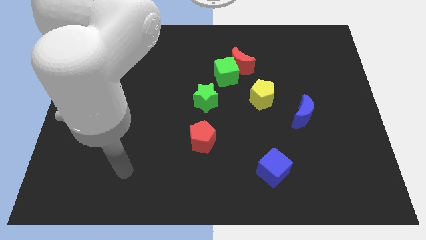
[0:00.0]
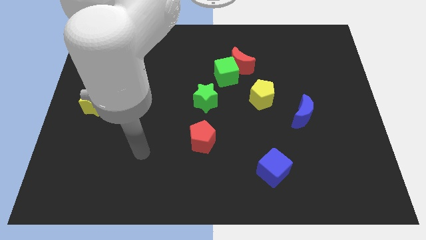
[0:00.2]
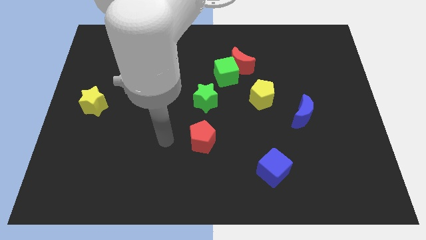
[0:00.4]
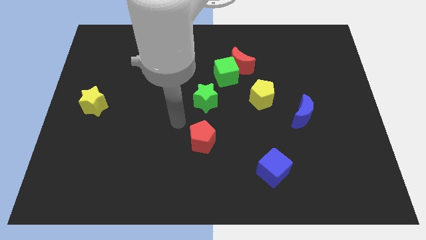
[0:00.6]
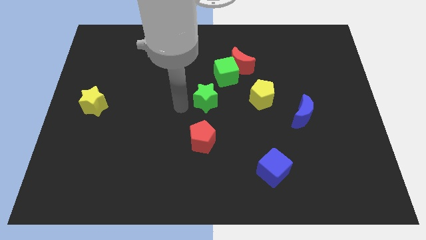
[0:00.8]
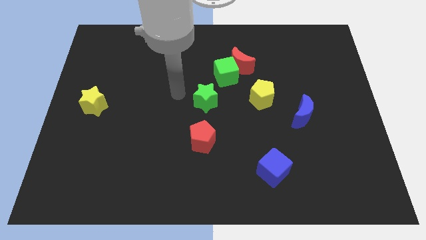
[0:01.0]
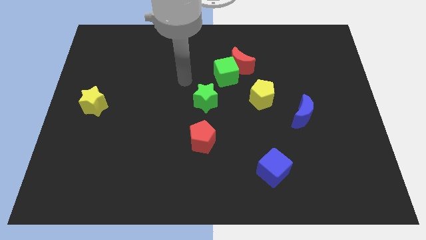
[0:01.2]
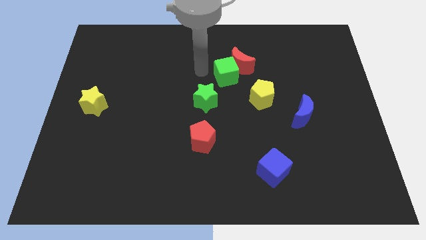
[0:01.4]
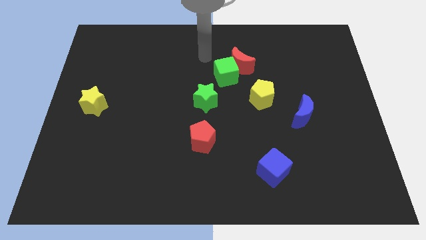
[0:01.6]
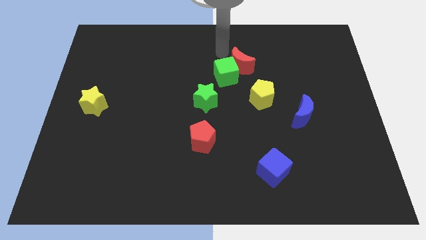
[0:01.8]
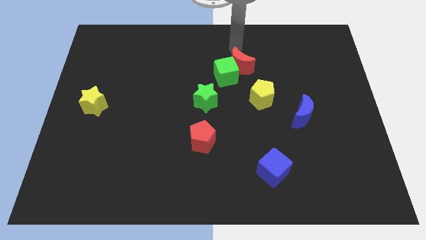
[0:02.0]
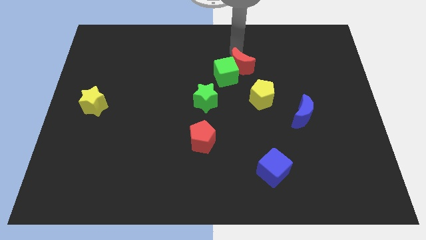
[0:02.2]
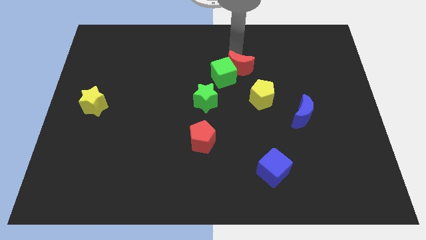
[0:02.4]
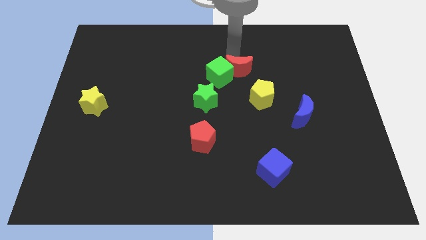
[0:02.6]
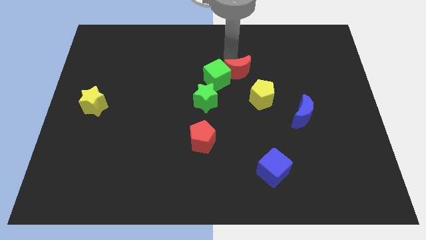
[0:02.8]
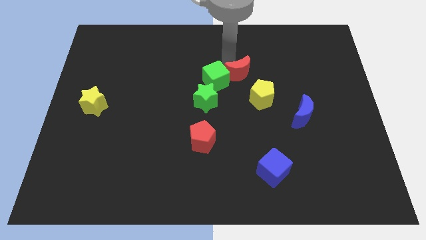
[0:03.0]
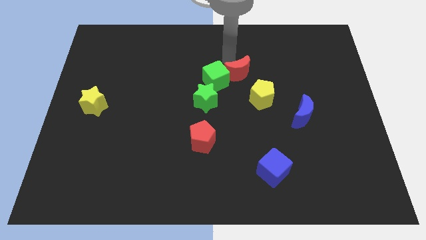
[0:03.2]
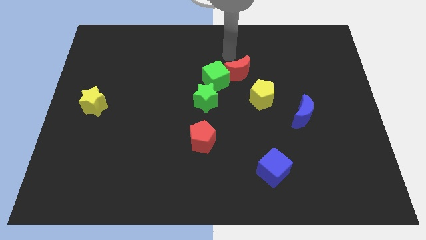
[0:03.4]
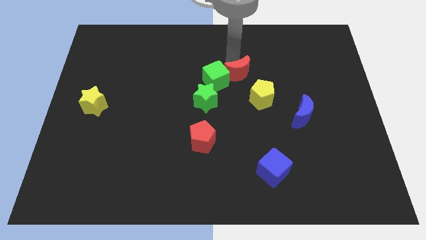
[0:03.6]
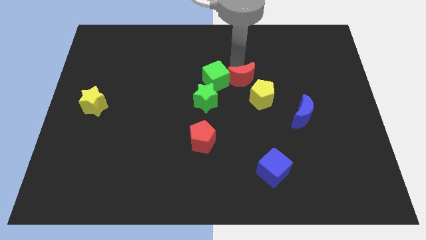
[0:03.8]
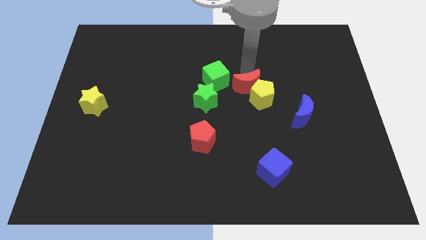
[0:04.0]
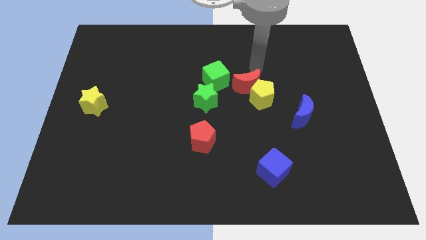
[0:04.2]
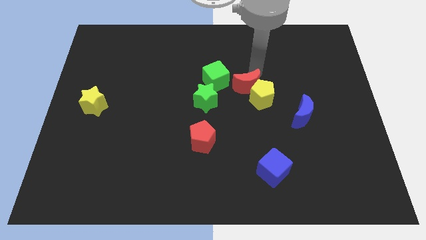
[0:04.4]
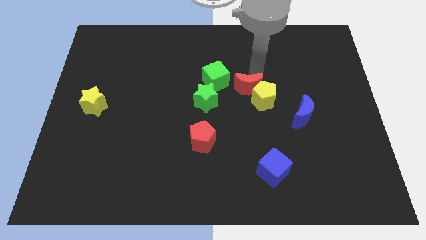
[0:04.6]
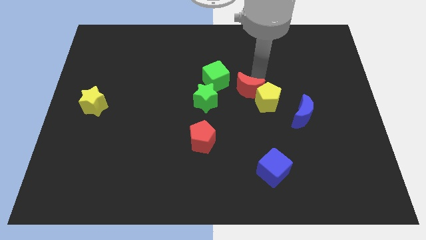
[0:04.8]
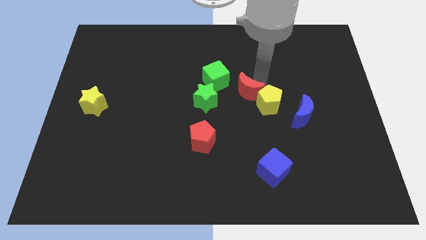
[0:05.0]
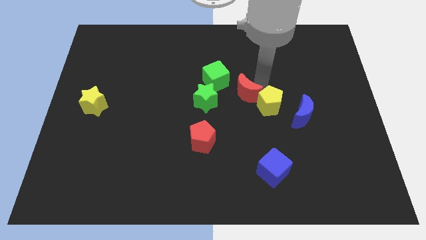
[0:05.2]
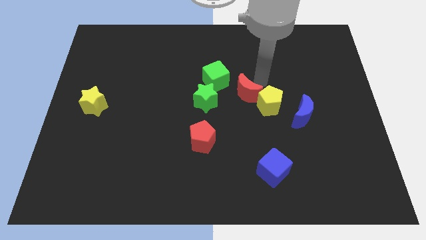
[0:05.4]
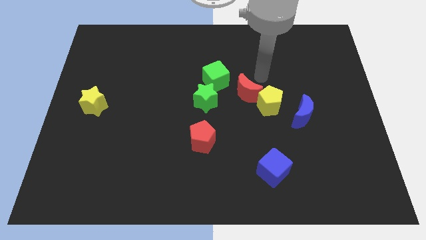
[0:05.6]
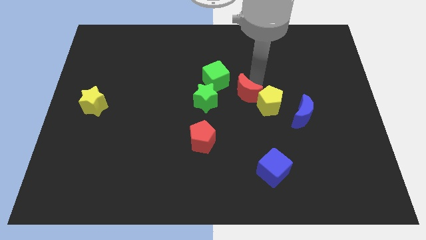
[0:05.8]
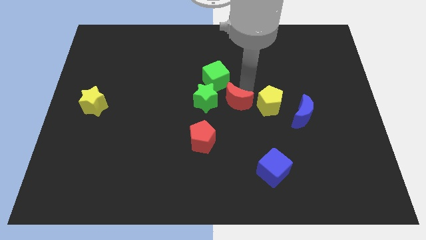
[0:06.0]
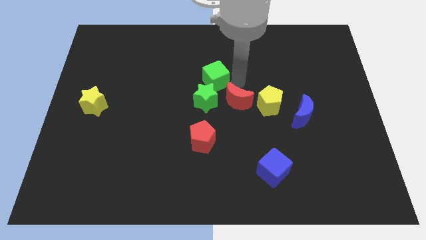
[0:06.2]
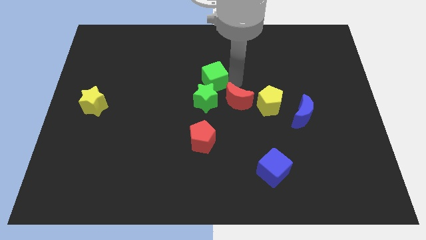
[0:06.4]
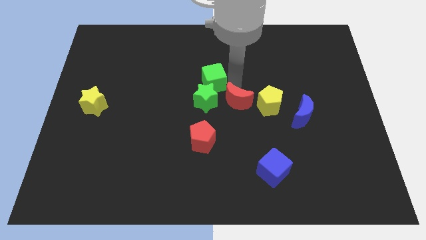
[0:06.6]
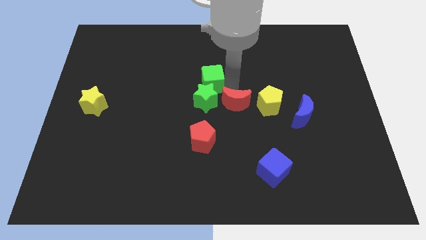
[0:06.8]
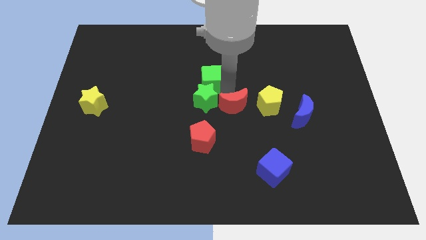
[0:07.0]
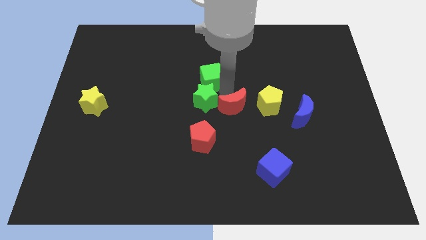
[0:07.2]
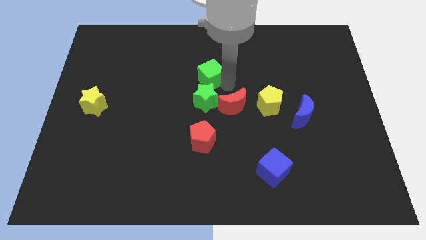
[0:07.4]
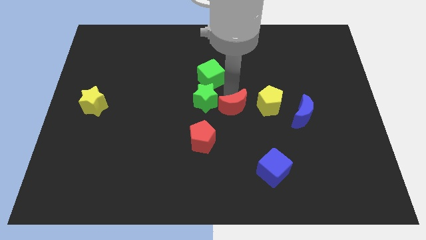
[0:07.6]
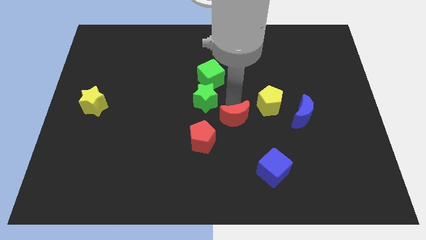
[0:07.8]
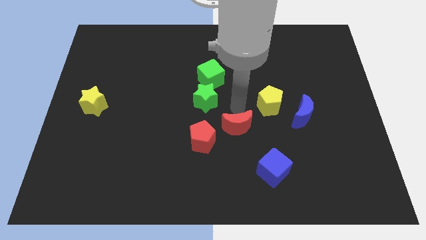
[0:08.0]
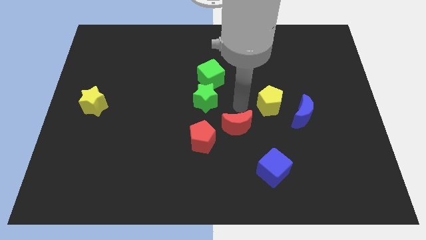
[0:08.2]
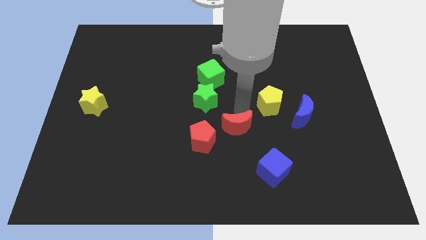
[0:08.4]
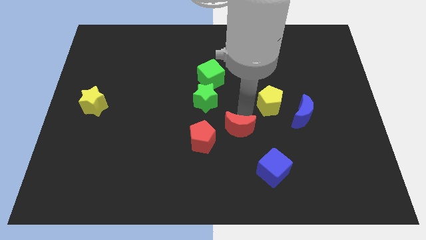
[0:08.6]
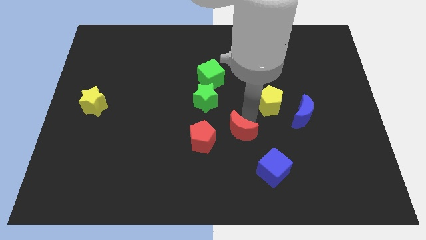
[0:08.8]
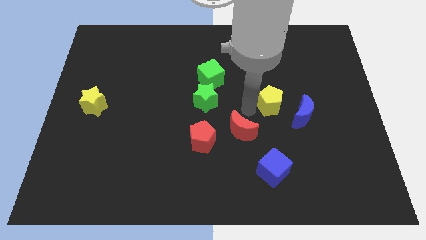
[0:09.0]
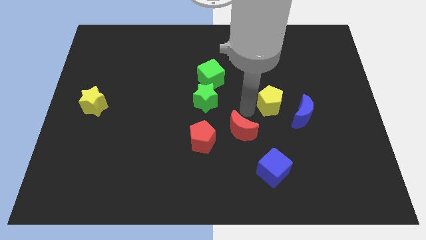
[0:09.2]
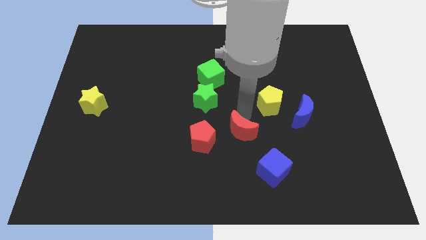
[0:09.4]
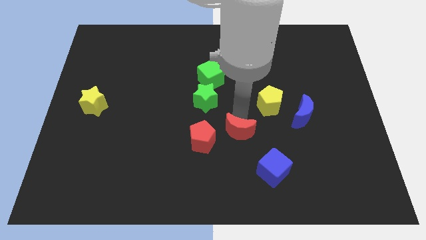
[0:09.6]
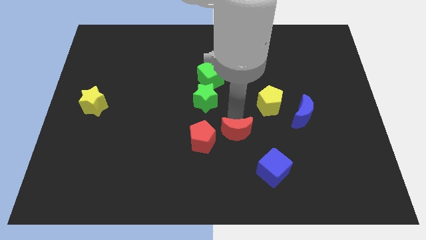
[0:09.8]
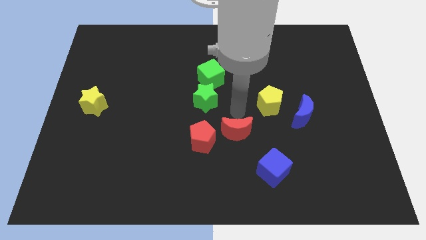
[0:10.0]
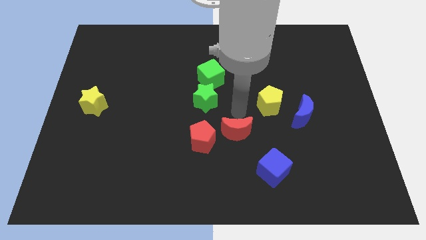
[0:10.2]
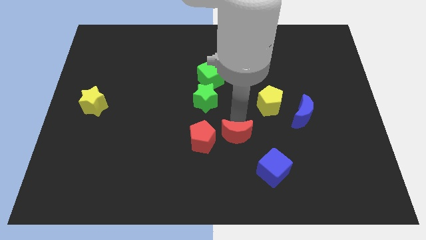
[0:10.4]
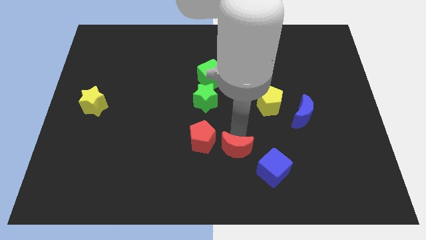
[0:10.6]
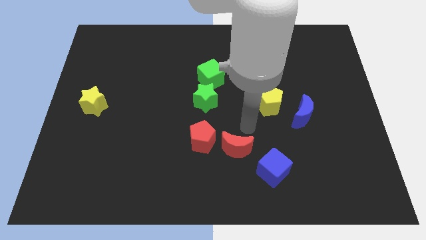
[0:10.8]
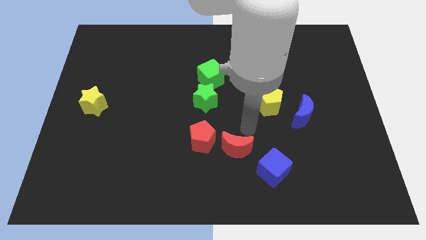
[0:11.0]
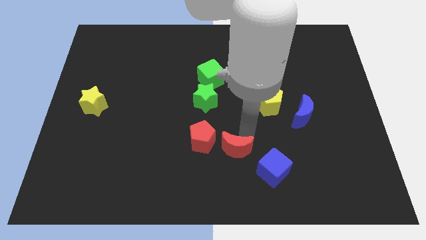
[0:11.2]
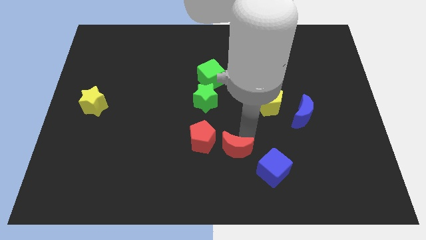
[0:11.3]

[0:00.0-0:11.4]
move the red moon to the left side of the blue cube

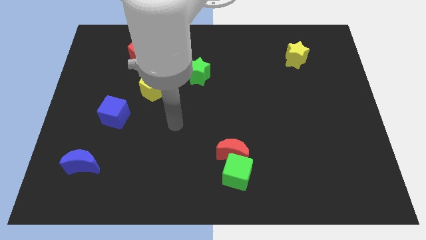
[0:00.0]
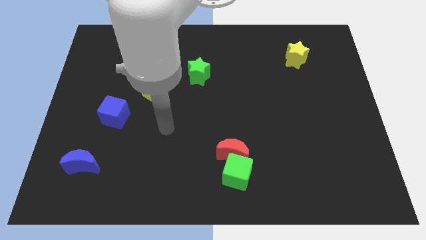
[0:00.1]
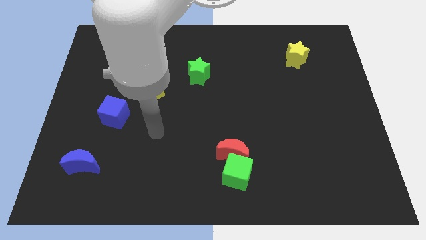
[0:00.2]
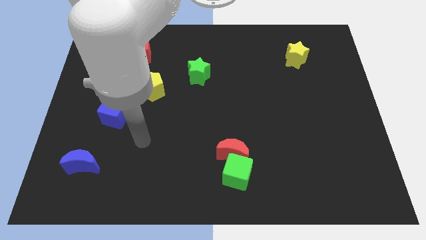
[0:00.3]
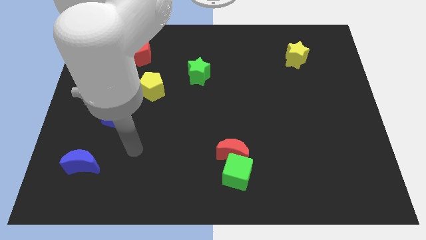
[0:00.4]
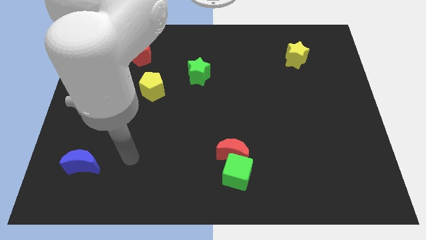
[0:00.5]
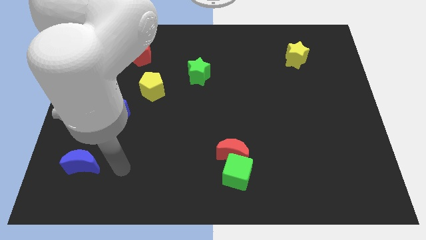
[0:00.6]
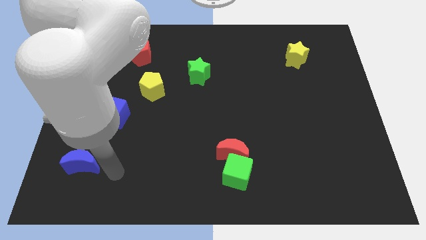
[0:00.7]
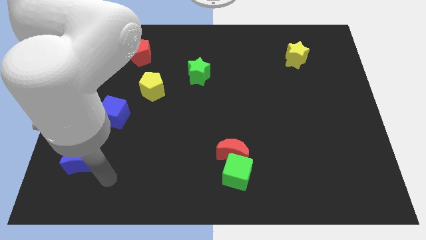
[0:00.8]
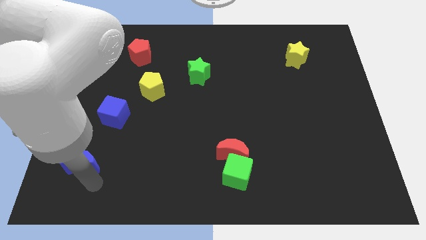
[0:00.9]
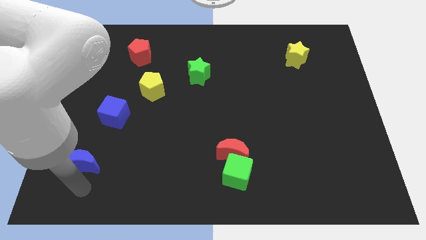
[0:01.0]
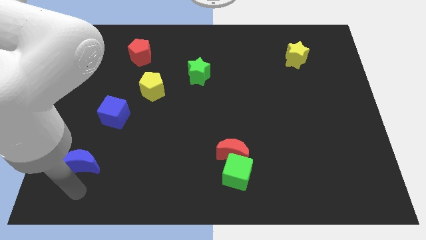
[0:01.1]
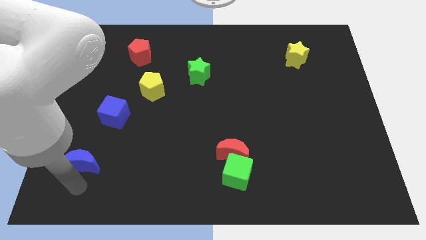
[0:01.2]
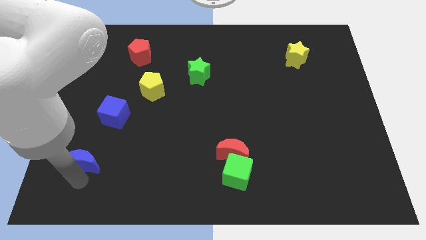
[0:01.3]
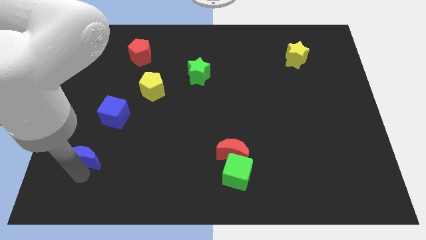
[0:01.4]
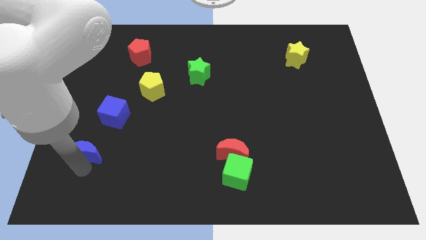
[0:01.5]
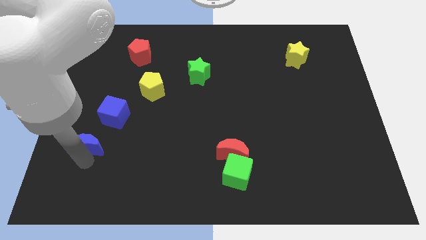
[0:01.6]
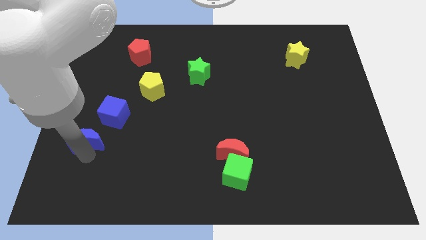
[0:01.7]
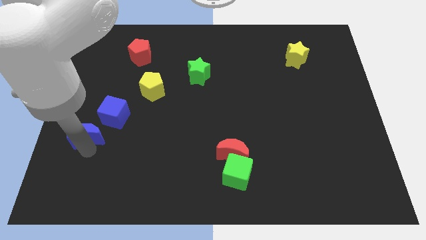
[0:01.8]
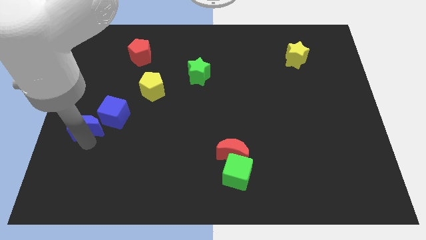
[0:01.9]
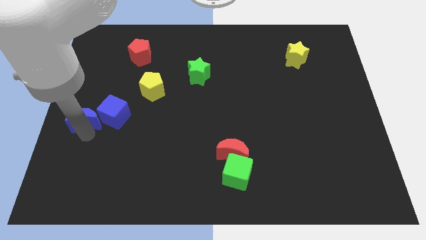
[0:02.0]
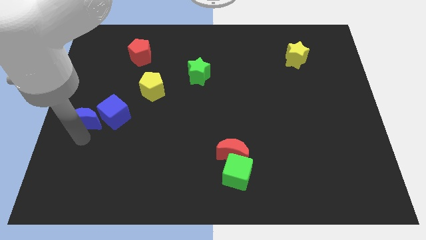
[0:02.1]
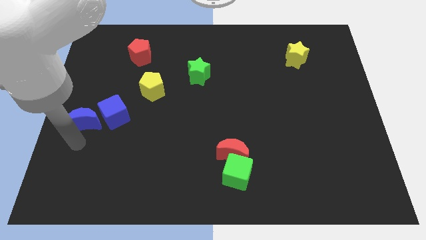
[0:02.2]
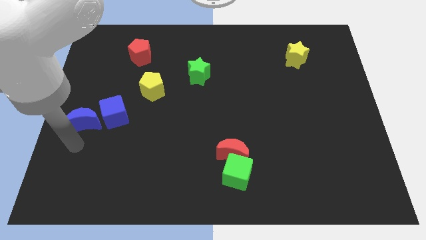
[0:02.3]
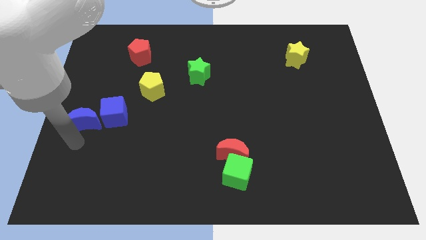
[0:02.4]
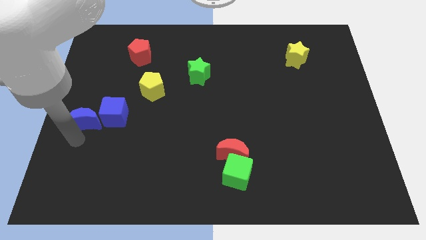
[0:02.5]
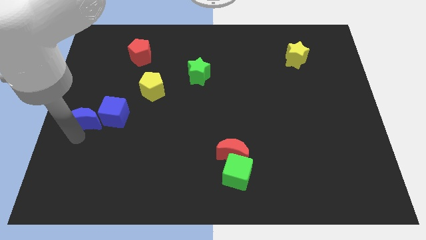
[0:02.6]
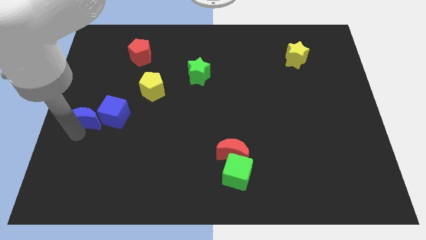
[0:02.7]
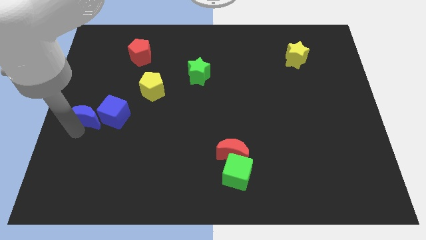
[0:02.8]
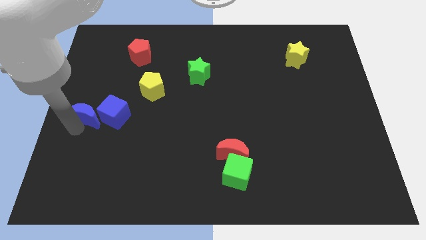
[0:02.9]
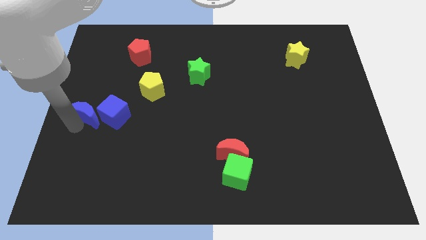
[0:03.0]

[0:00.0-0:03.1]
slide the blue moon to the top left side of the blue cube
